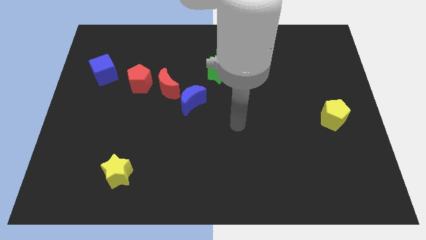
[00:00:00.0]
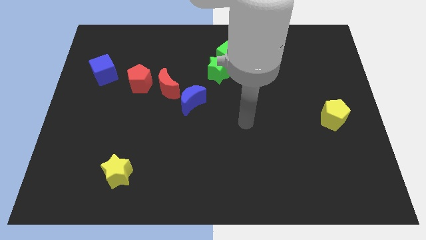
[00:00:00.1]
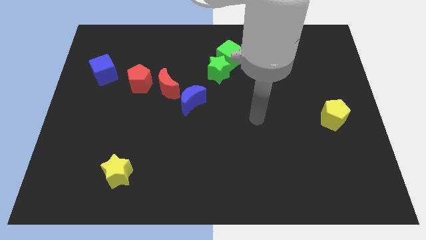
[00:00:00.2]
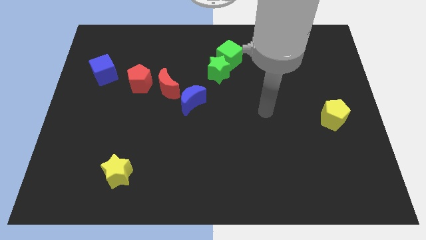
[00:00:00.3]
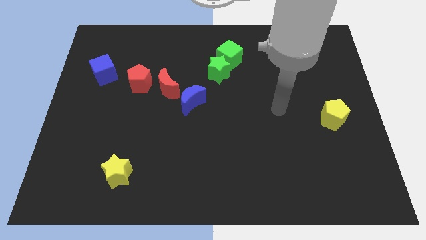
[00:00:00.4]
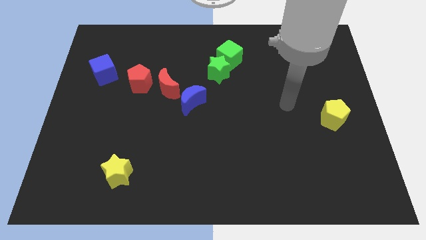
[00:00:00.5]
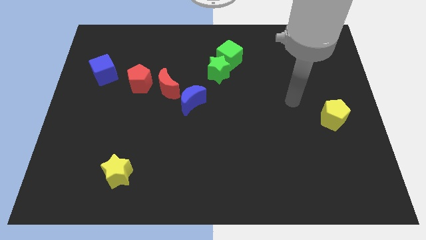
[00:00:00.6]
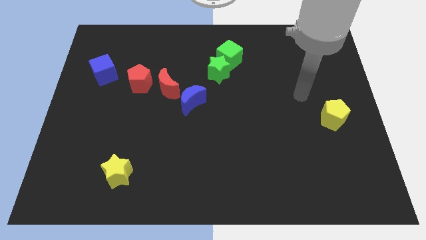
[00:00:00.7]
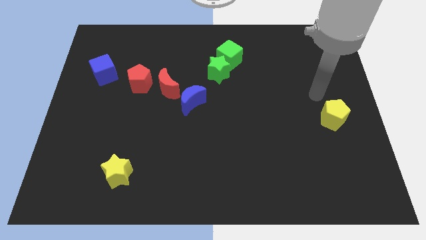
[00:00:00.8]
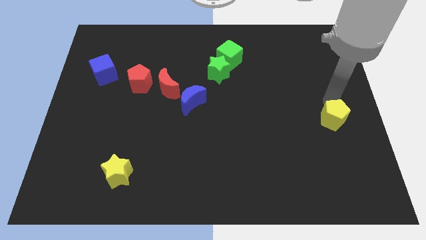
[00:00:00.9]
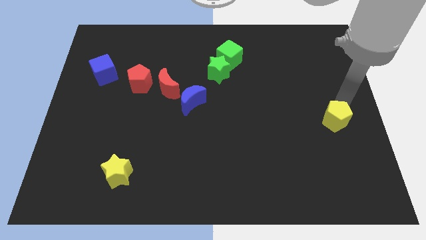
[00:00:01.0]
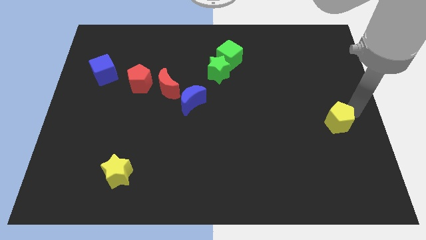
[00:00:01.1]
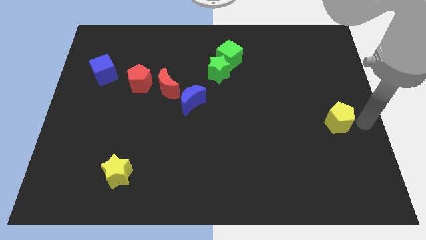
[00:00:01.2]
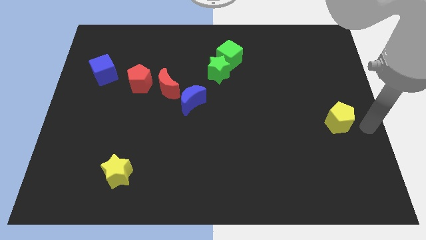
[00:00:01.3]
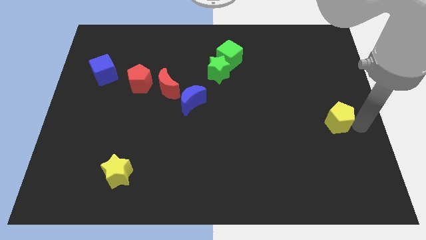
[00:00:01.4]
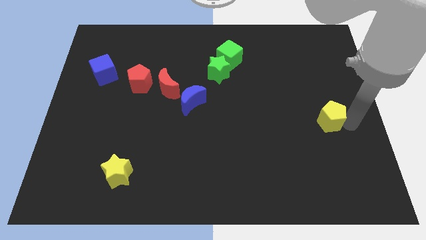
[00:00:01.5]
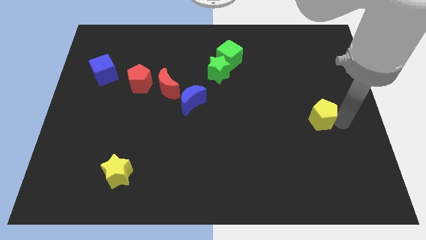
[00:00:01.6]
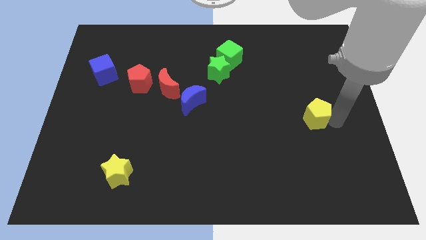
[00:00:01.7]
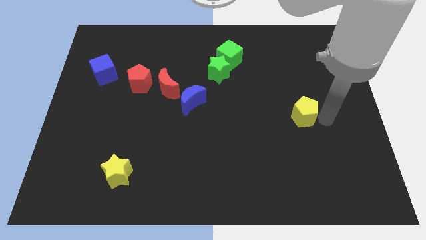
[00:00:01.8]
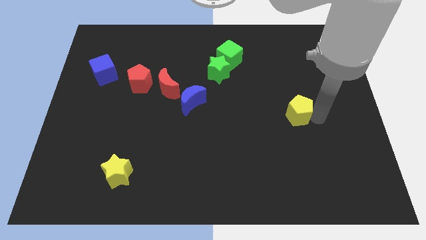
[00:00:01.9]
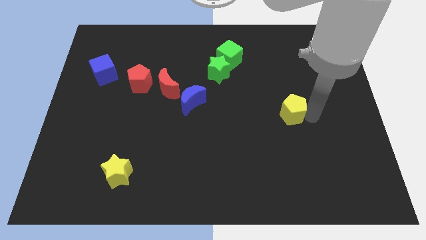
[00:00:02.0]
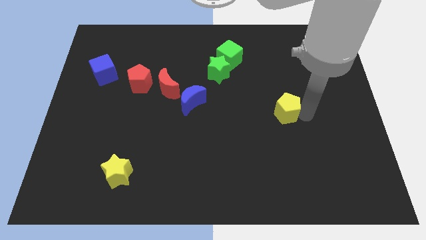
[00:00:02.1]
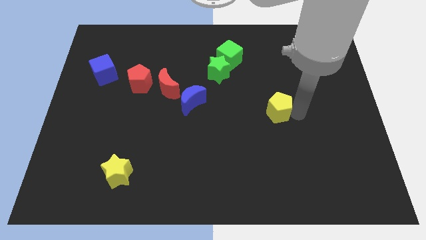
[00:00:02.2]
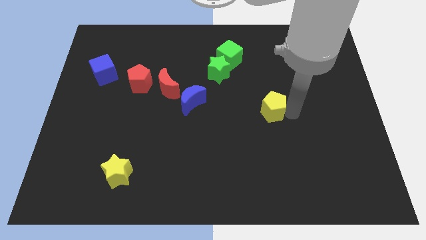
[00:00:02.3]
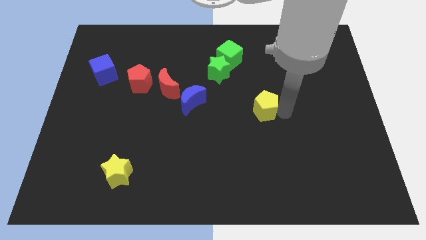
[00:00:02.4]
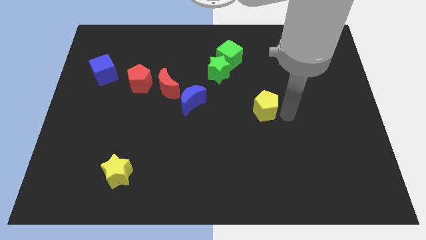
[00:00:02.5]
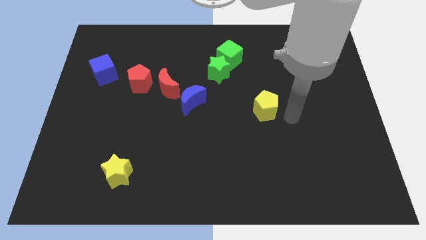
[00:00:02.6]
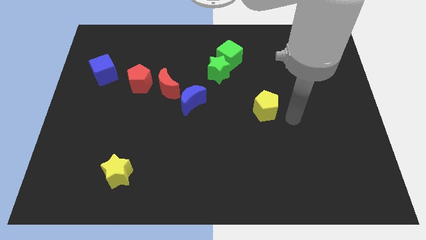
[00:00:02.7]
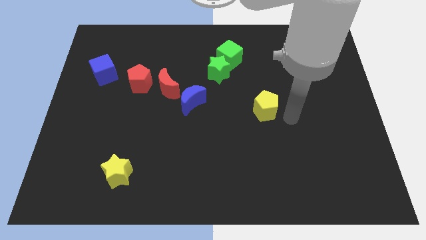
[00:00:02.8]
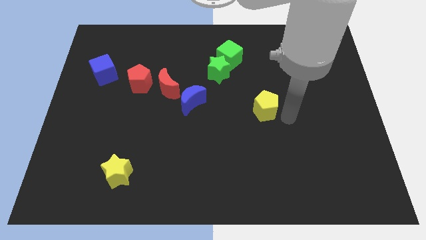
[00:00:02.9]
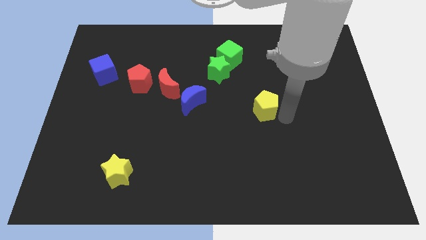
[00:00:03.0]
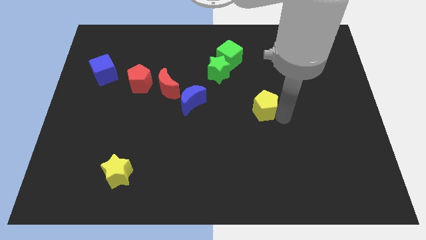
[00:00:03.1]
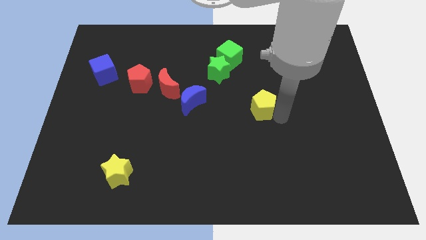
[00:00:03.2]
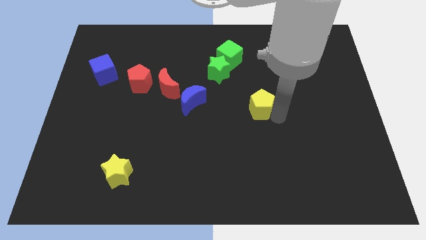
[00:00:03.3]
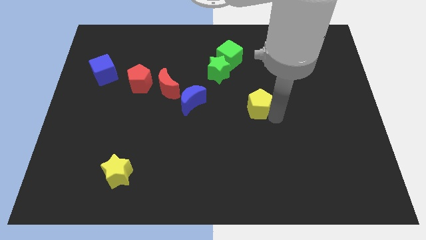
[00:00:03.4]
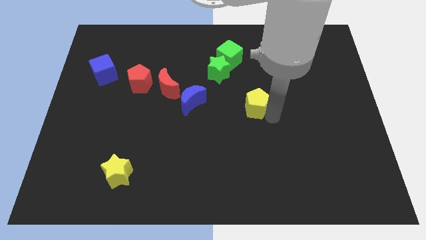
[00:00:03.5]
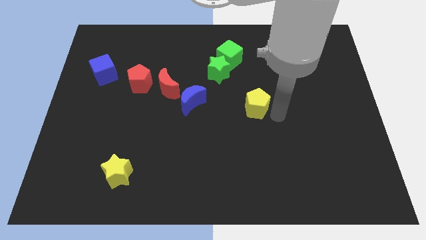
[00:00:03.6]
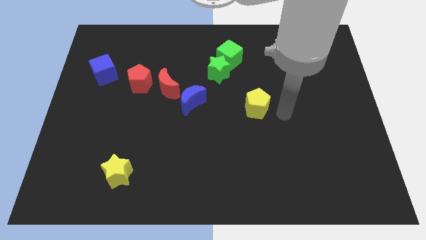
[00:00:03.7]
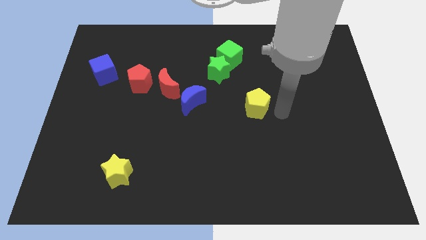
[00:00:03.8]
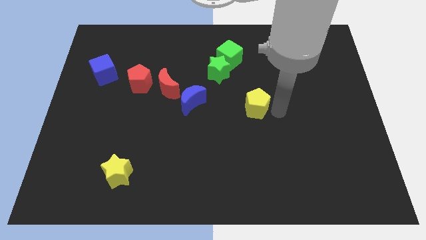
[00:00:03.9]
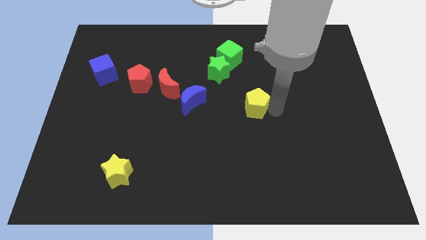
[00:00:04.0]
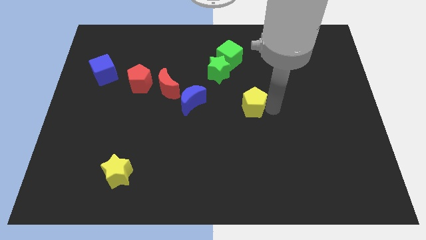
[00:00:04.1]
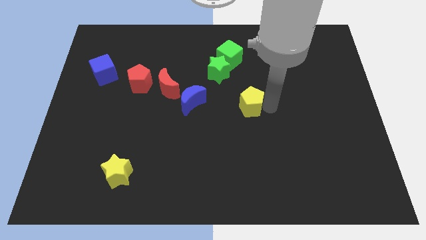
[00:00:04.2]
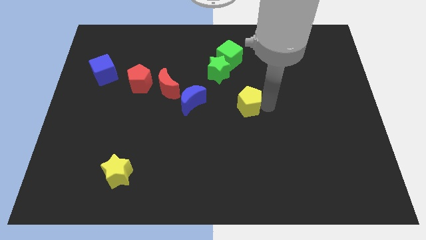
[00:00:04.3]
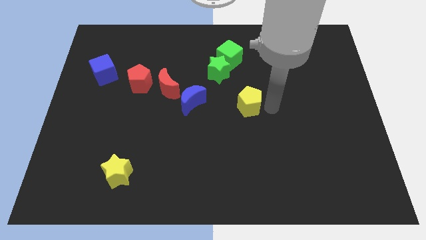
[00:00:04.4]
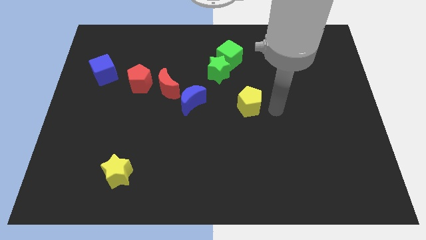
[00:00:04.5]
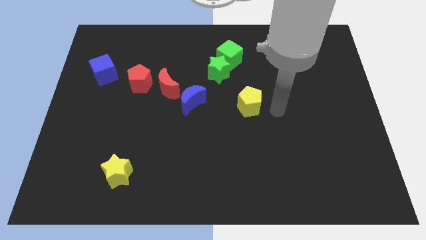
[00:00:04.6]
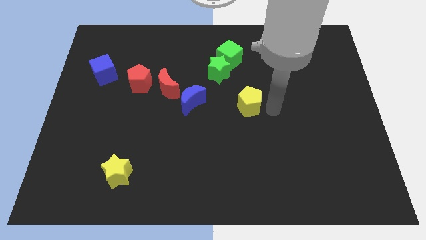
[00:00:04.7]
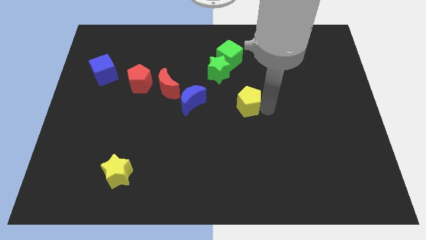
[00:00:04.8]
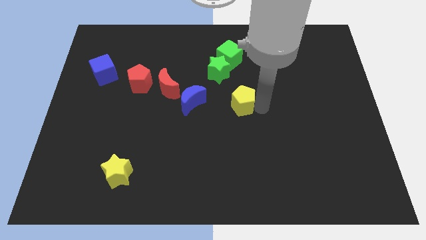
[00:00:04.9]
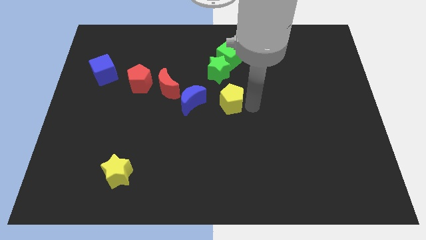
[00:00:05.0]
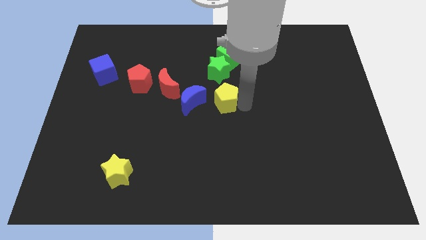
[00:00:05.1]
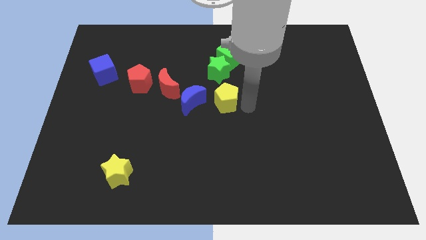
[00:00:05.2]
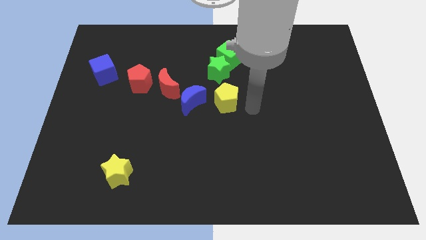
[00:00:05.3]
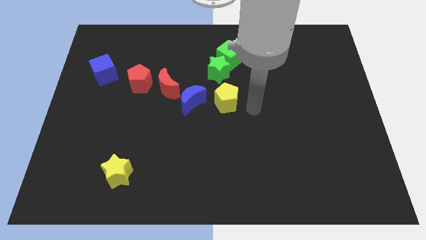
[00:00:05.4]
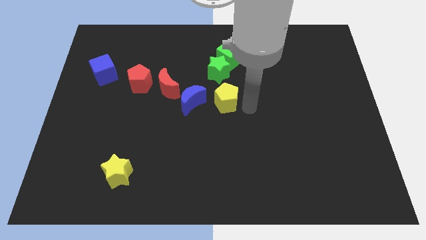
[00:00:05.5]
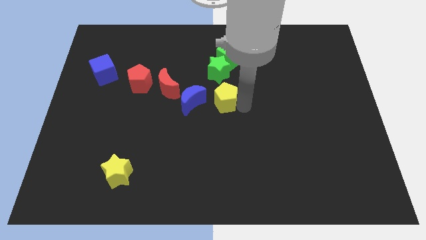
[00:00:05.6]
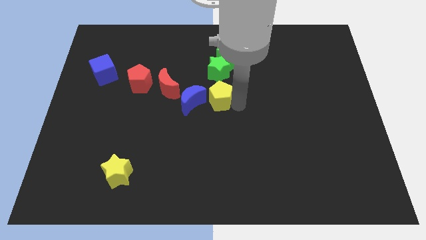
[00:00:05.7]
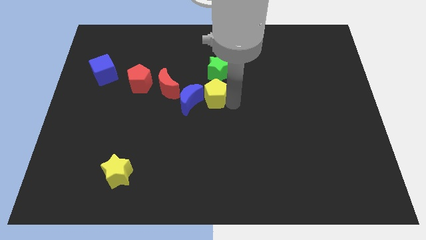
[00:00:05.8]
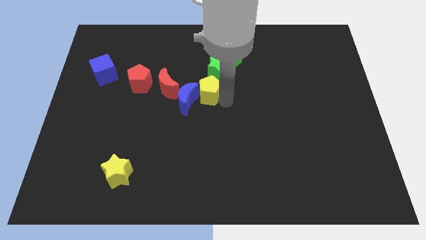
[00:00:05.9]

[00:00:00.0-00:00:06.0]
slide the yellow pentagon to the bottom left of the green star

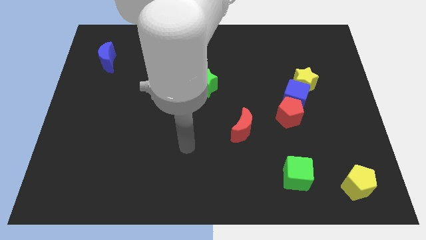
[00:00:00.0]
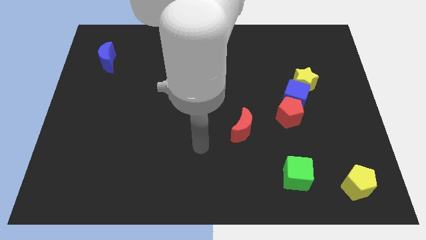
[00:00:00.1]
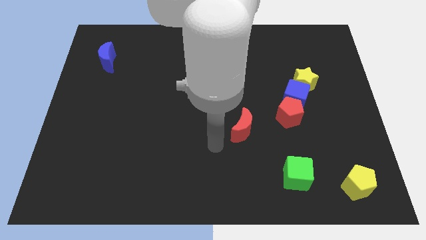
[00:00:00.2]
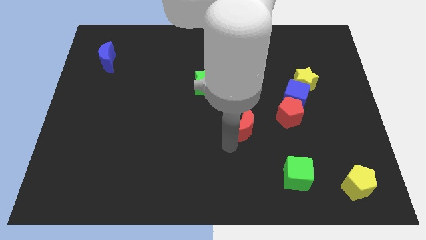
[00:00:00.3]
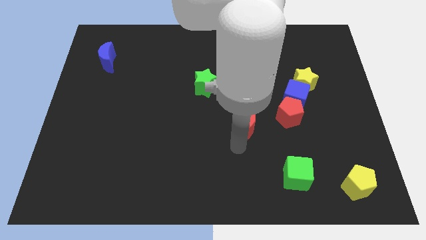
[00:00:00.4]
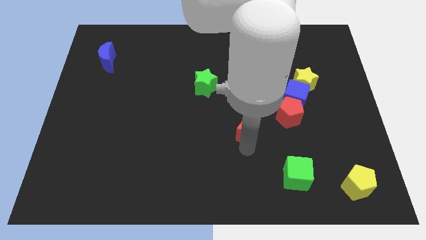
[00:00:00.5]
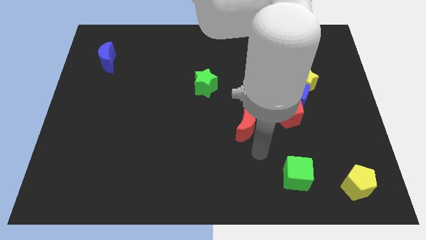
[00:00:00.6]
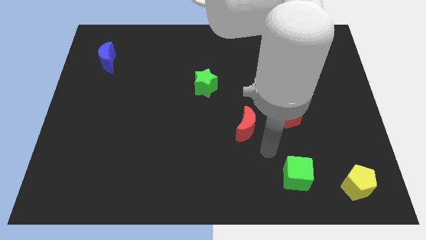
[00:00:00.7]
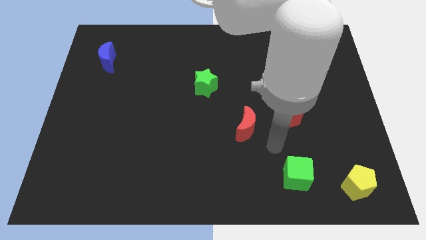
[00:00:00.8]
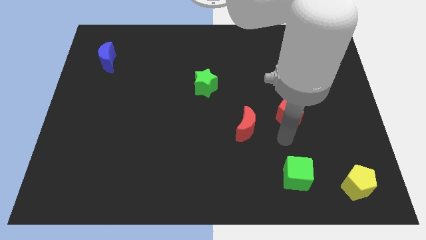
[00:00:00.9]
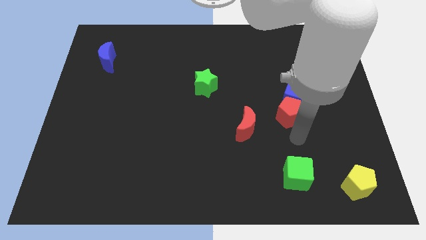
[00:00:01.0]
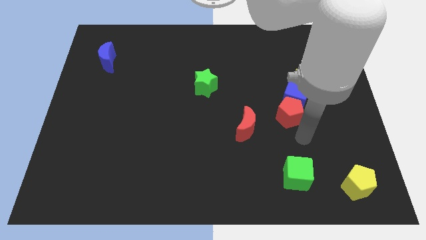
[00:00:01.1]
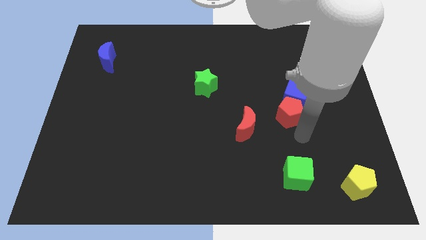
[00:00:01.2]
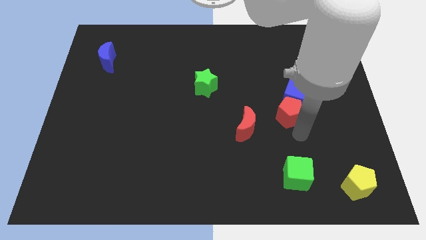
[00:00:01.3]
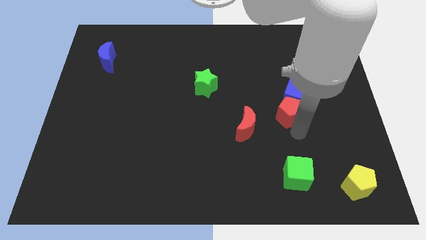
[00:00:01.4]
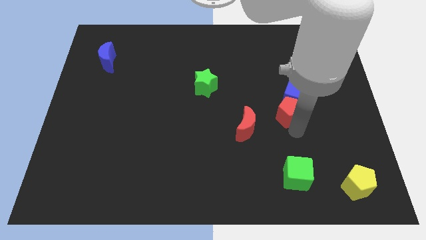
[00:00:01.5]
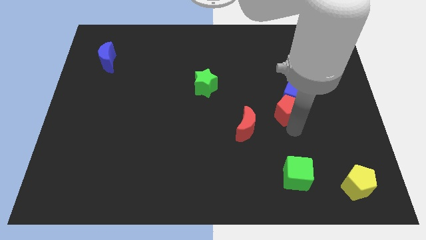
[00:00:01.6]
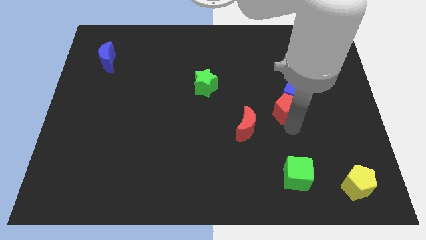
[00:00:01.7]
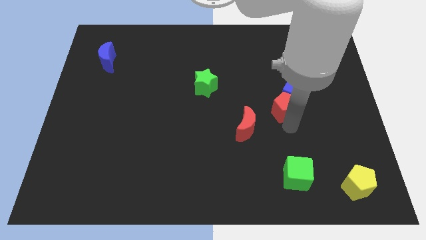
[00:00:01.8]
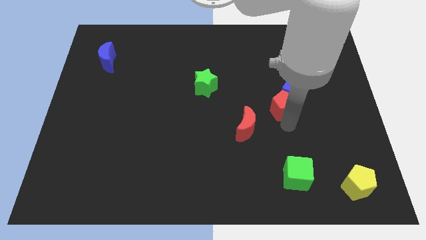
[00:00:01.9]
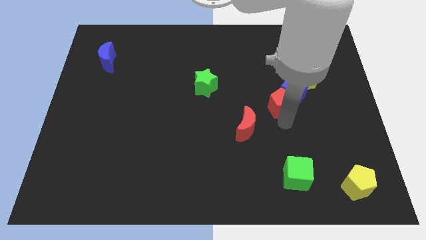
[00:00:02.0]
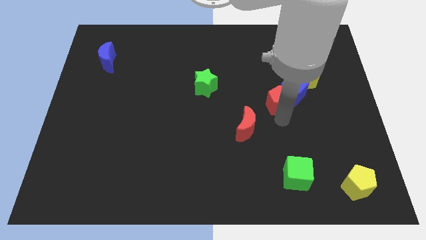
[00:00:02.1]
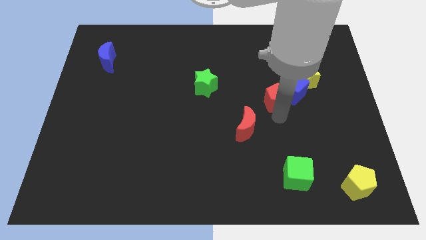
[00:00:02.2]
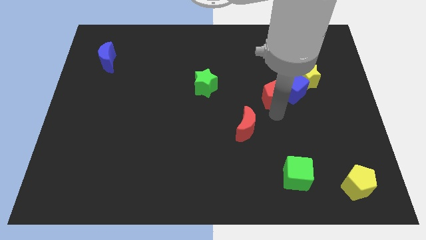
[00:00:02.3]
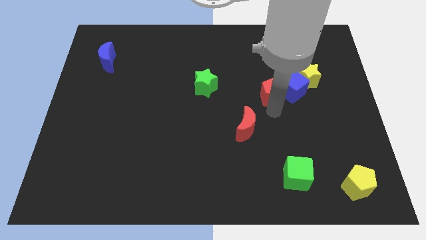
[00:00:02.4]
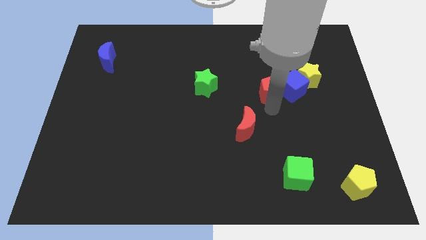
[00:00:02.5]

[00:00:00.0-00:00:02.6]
push the red pentagon diagonally up and to the left of the blue cube

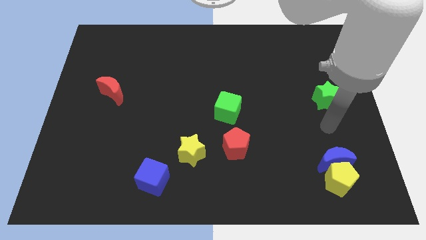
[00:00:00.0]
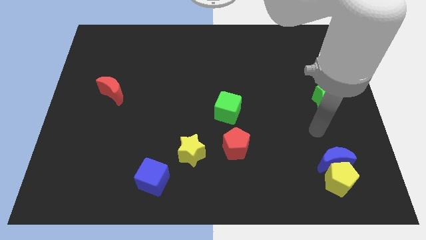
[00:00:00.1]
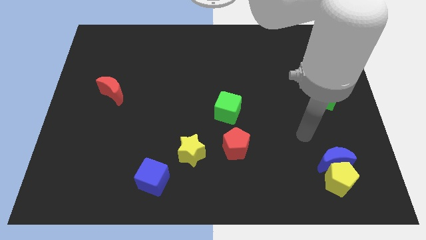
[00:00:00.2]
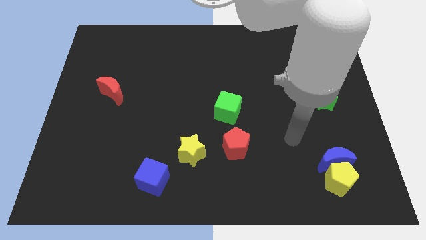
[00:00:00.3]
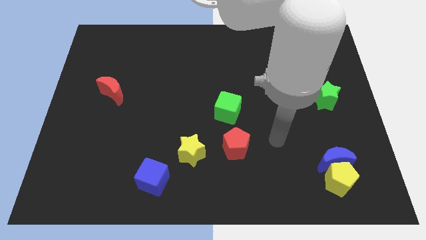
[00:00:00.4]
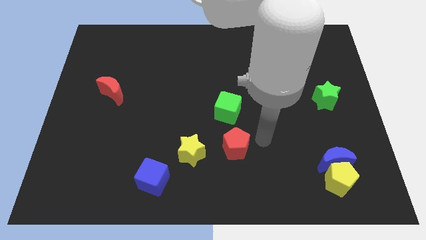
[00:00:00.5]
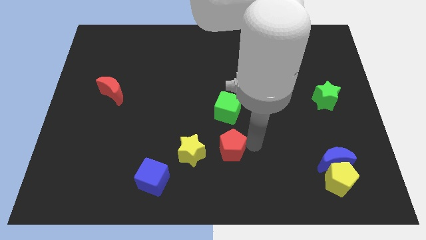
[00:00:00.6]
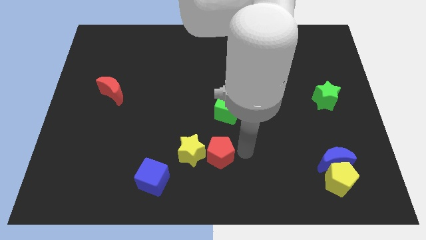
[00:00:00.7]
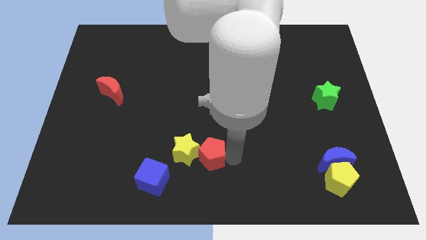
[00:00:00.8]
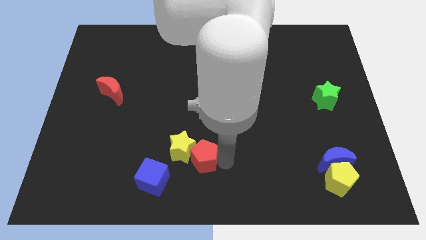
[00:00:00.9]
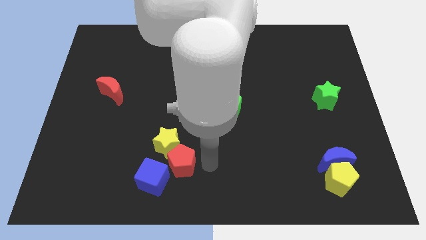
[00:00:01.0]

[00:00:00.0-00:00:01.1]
move the yellow star to the top side of the blue cube
